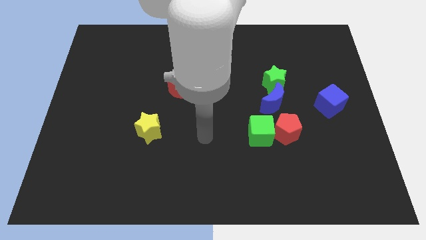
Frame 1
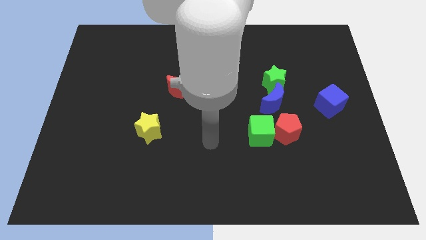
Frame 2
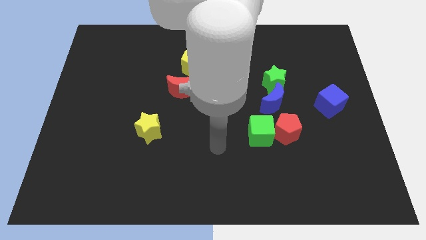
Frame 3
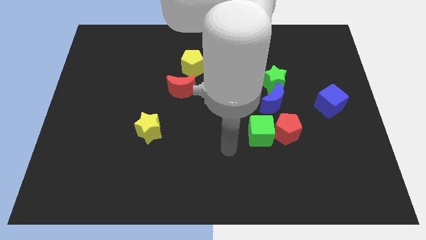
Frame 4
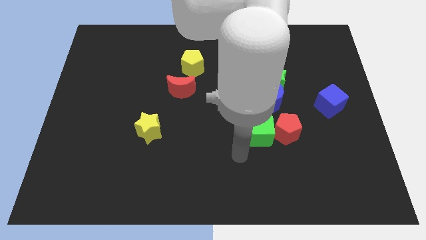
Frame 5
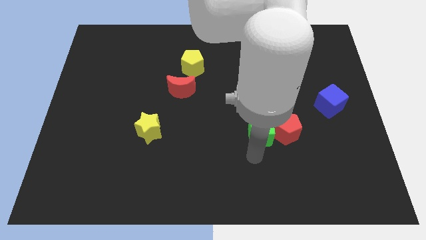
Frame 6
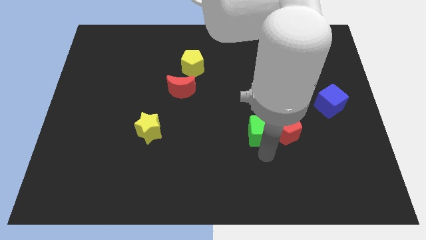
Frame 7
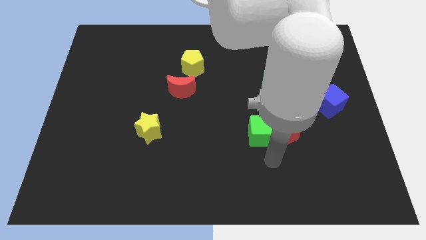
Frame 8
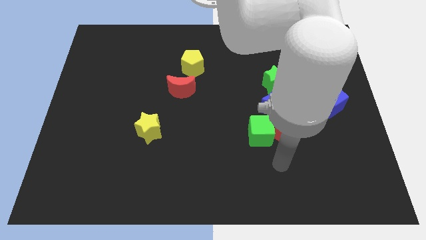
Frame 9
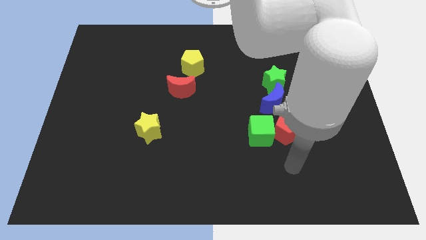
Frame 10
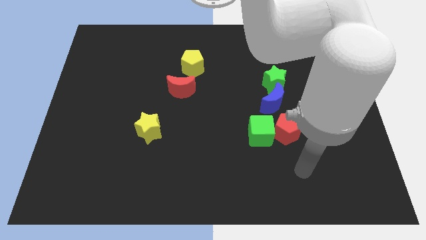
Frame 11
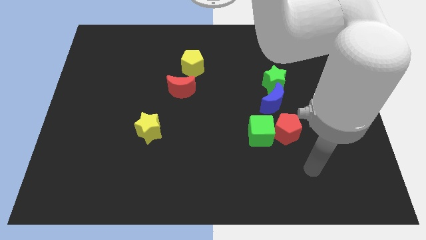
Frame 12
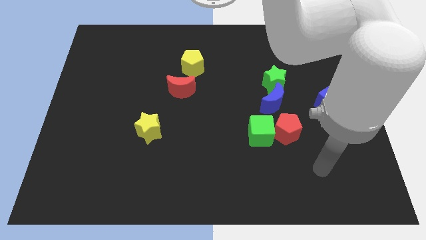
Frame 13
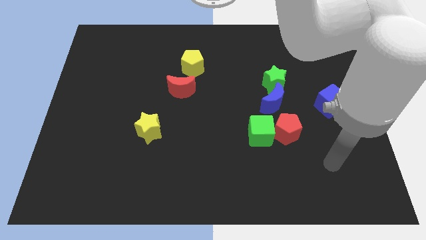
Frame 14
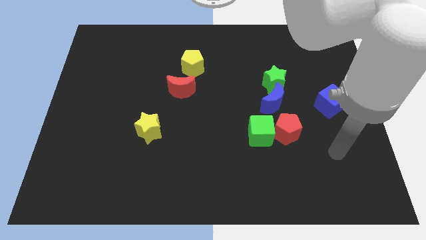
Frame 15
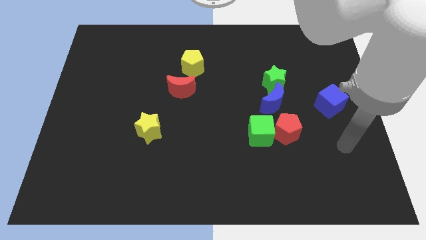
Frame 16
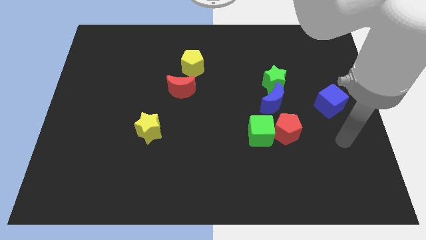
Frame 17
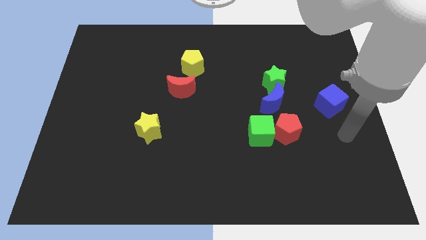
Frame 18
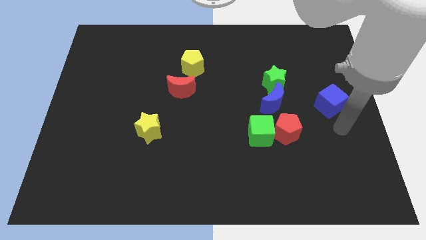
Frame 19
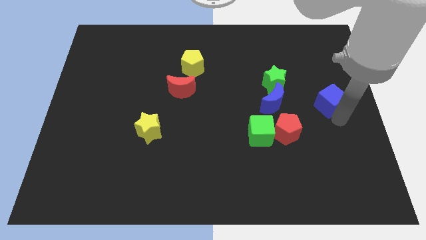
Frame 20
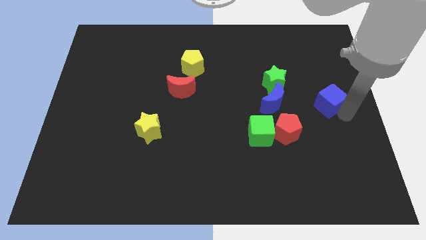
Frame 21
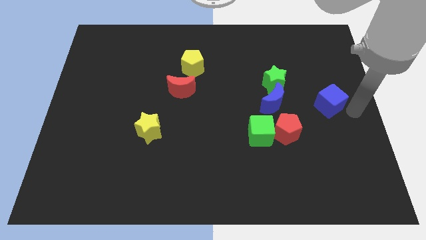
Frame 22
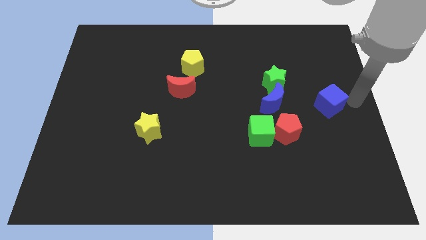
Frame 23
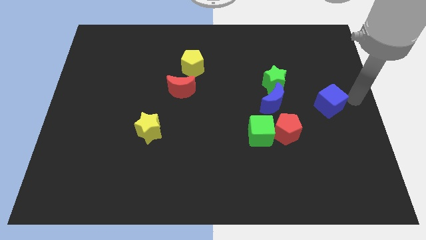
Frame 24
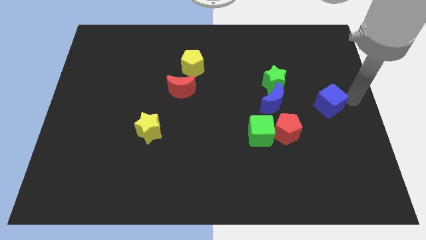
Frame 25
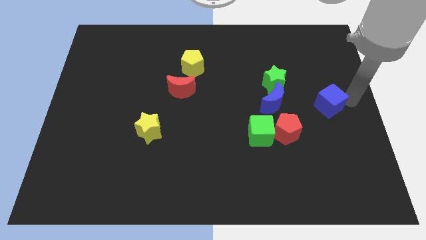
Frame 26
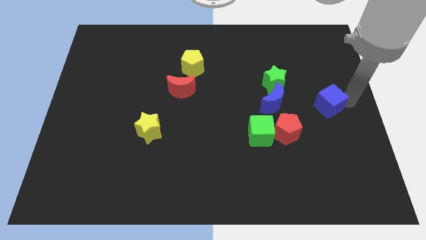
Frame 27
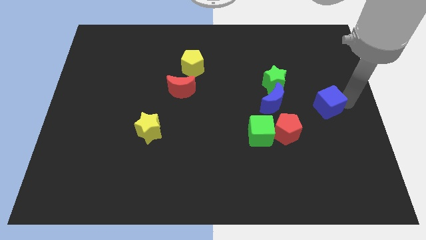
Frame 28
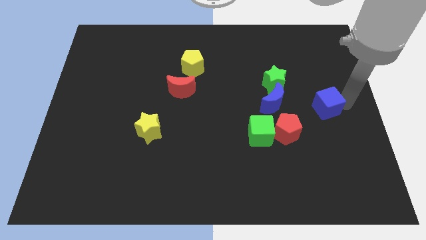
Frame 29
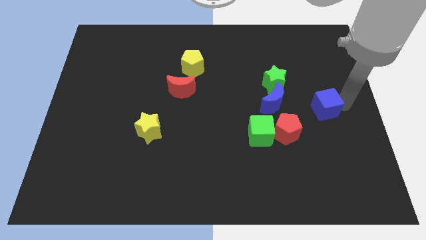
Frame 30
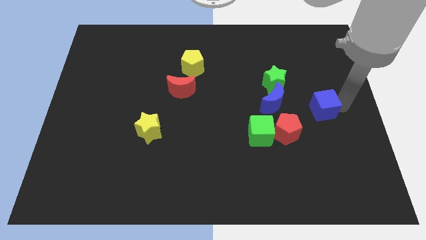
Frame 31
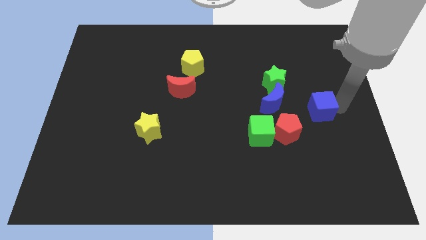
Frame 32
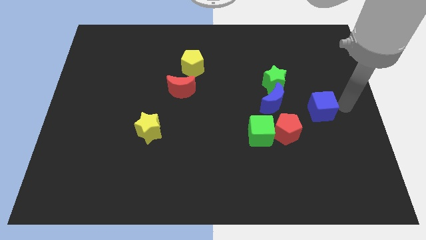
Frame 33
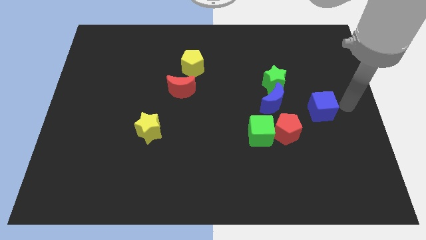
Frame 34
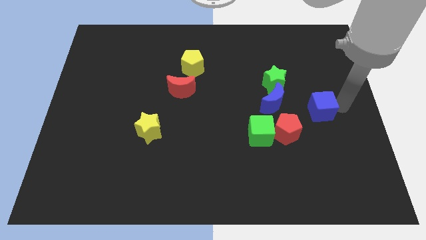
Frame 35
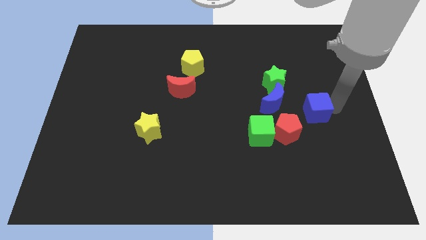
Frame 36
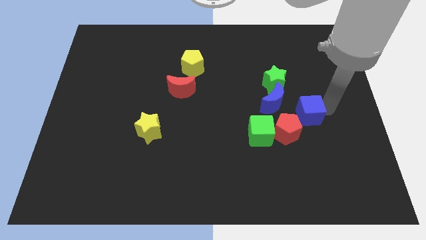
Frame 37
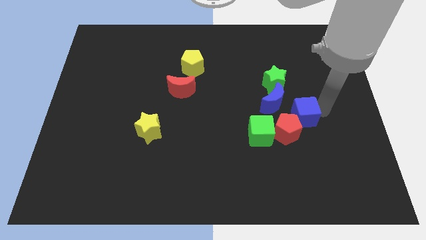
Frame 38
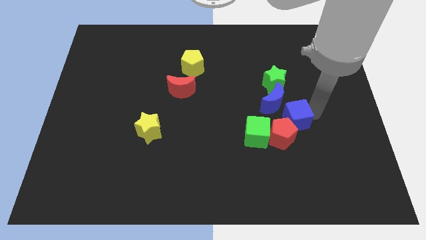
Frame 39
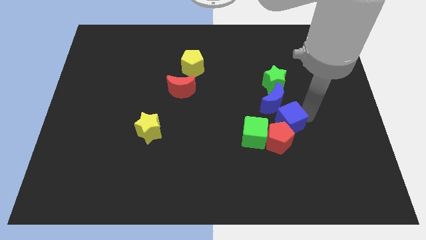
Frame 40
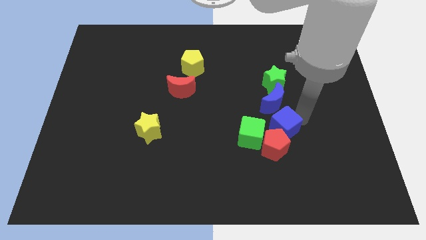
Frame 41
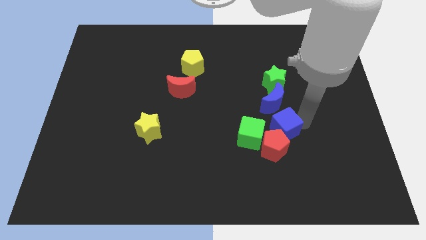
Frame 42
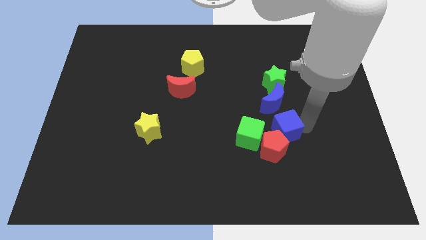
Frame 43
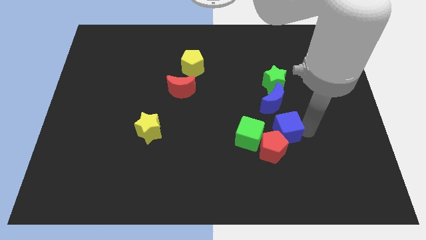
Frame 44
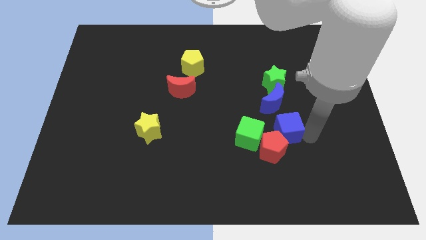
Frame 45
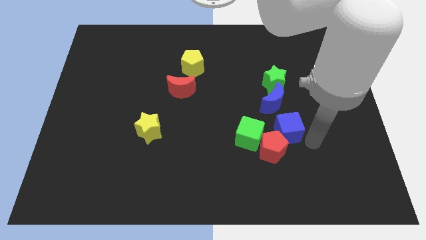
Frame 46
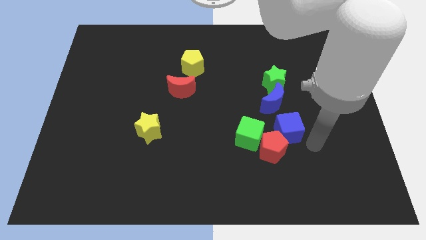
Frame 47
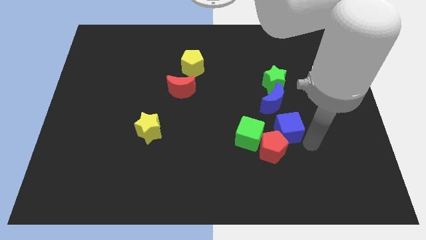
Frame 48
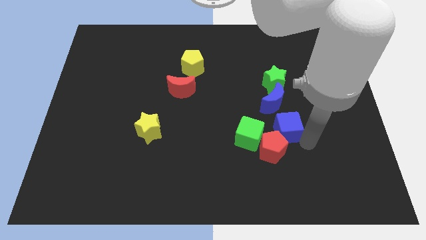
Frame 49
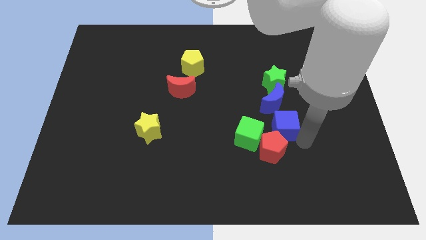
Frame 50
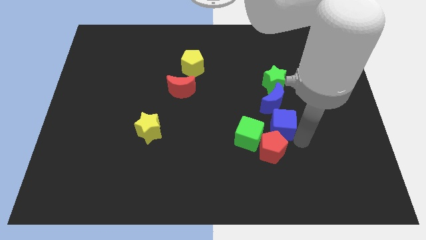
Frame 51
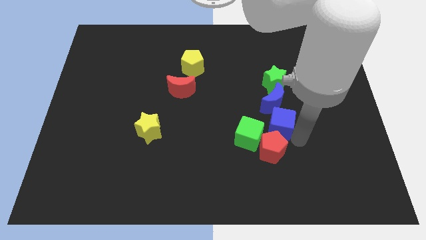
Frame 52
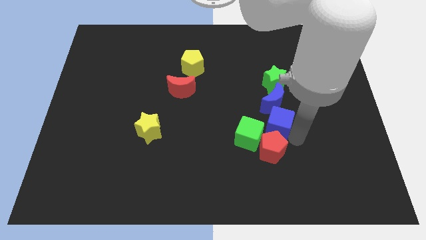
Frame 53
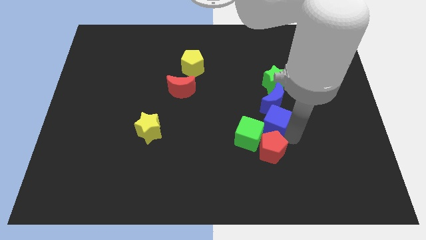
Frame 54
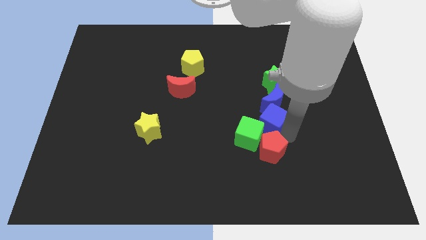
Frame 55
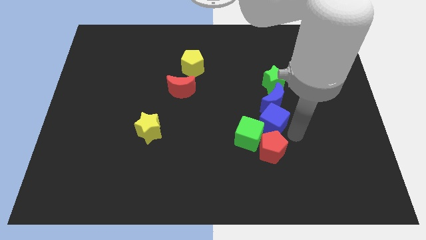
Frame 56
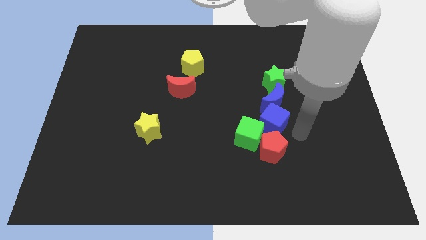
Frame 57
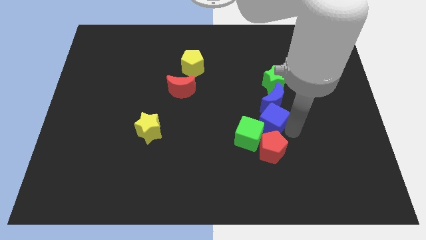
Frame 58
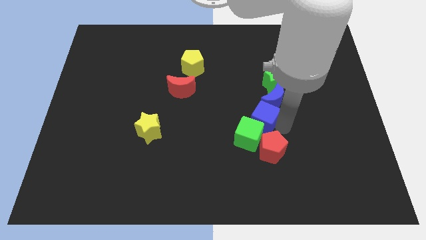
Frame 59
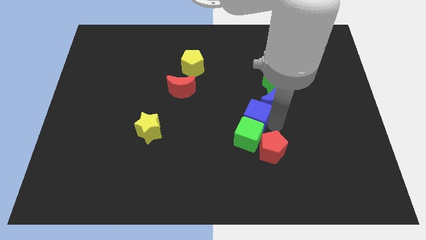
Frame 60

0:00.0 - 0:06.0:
push the blue cube to the middle of the board

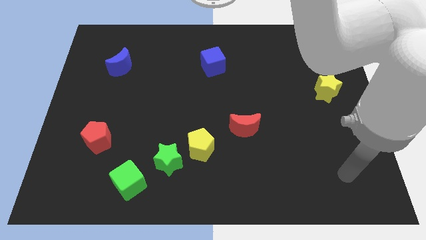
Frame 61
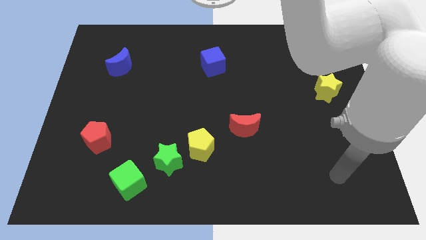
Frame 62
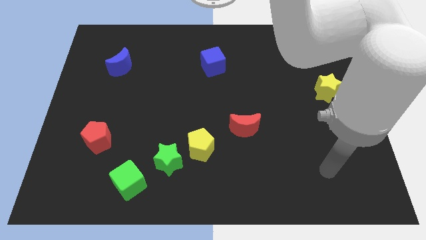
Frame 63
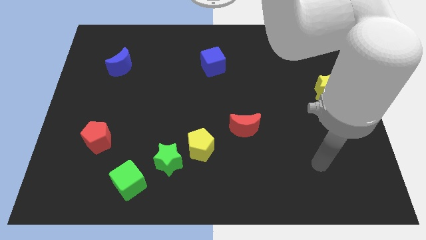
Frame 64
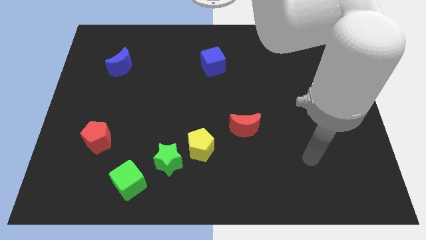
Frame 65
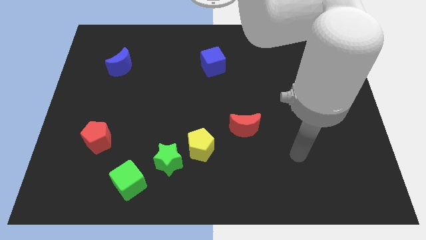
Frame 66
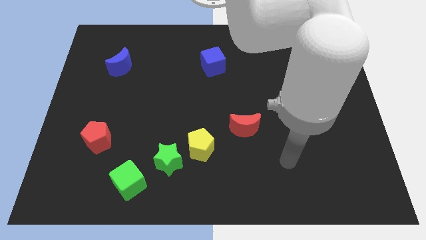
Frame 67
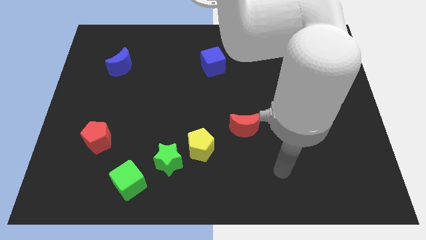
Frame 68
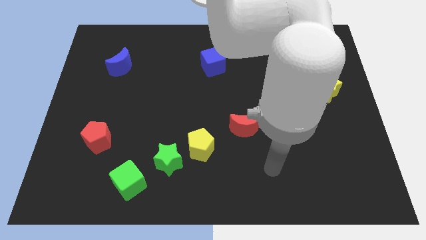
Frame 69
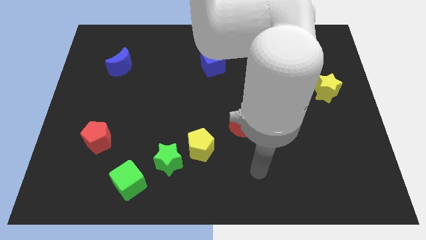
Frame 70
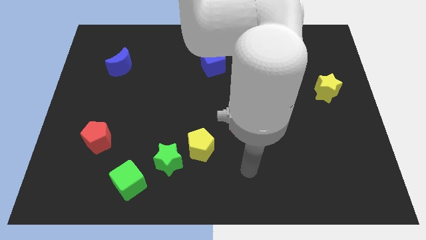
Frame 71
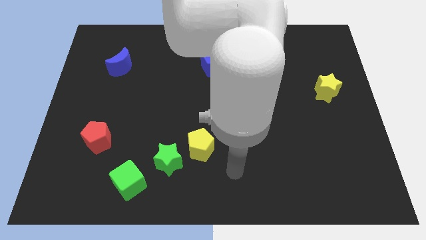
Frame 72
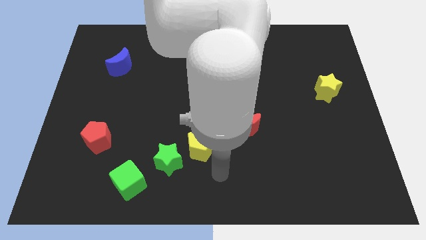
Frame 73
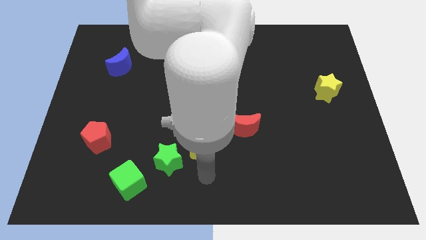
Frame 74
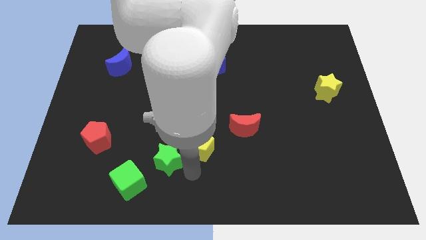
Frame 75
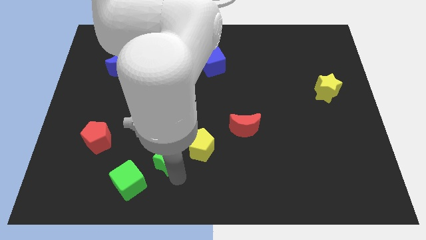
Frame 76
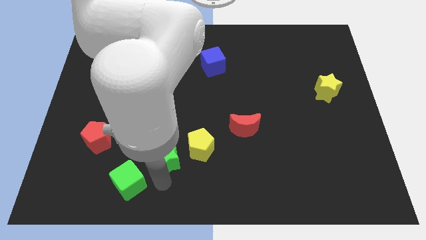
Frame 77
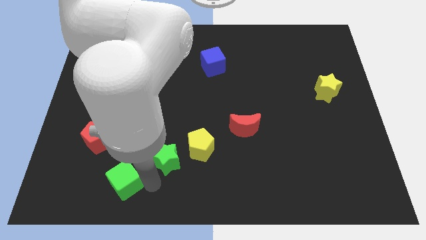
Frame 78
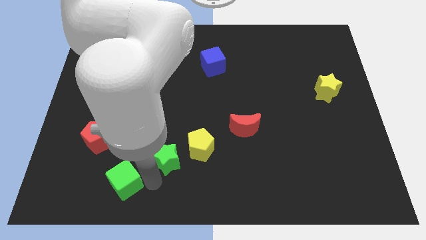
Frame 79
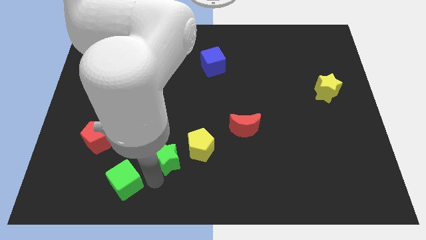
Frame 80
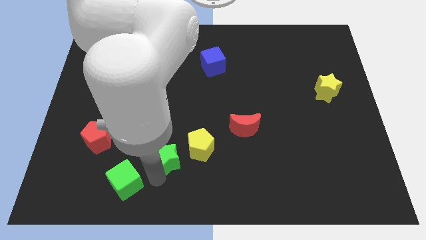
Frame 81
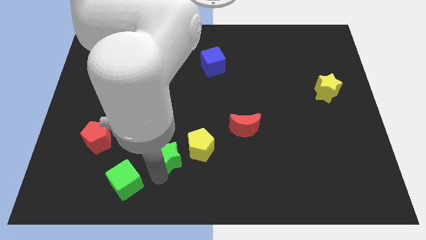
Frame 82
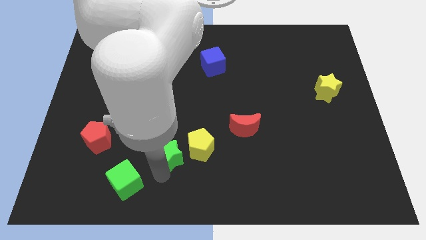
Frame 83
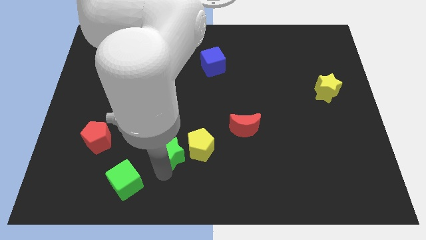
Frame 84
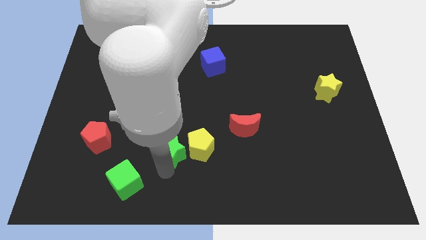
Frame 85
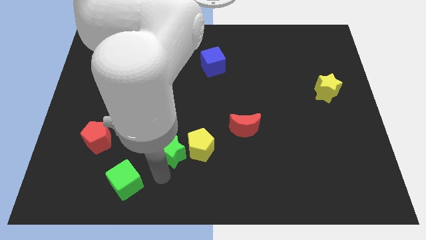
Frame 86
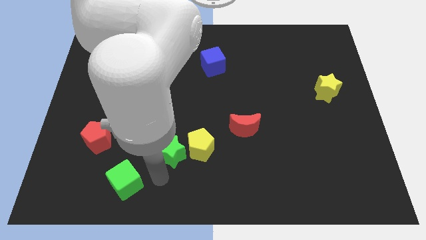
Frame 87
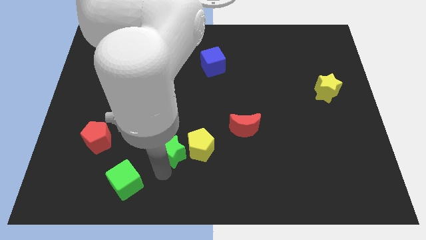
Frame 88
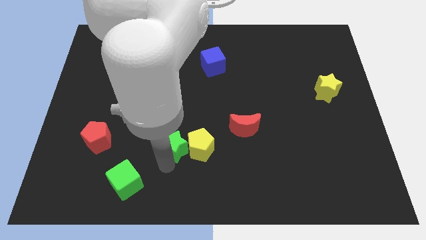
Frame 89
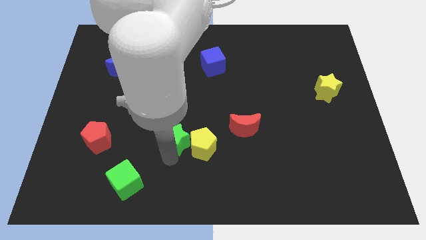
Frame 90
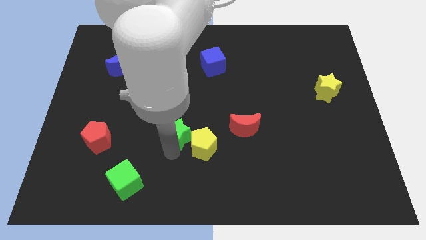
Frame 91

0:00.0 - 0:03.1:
move the green star to the center of the board
